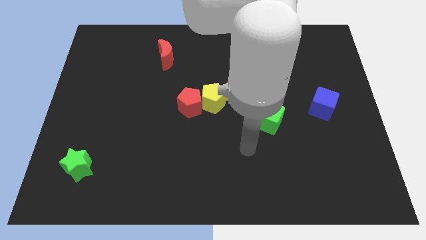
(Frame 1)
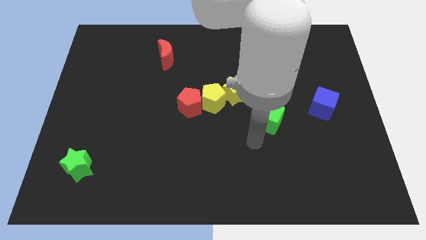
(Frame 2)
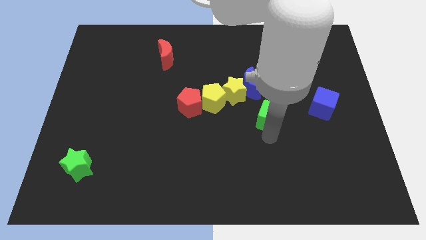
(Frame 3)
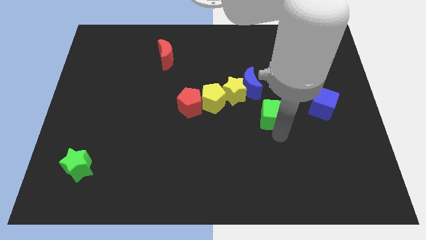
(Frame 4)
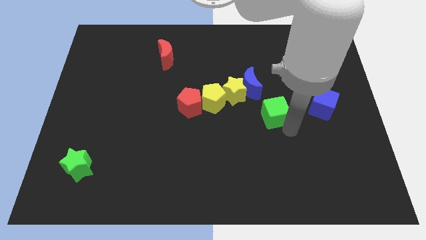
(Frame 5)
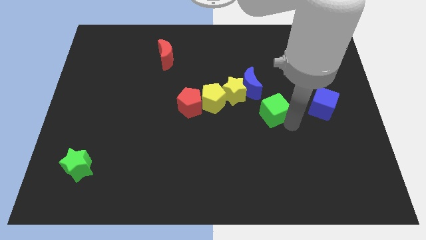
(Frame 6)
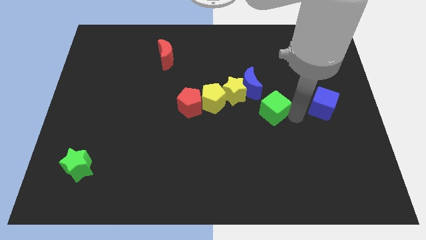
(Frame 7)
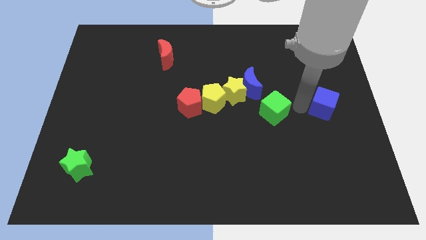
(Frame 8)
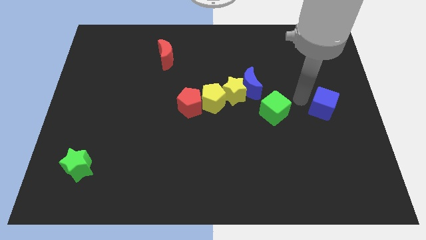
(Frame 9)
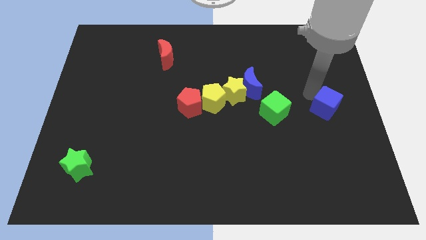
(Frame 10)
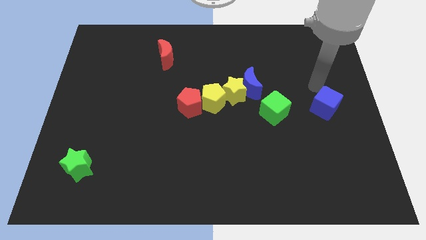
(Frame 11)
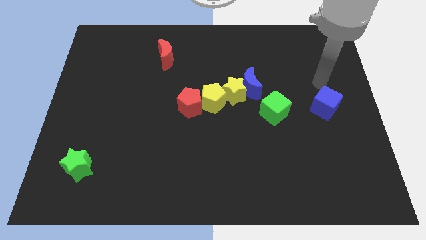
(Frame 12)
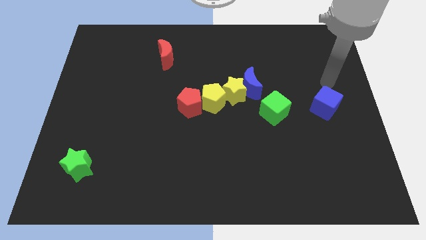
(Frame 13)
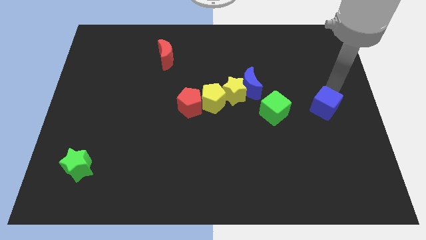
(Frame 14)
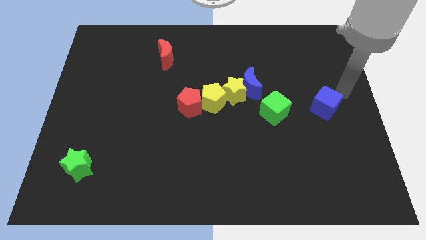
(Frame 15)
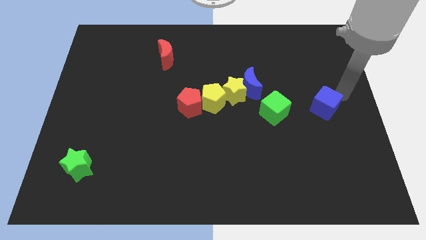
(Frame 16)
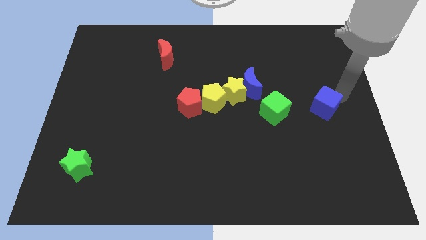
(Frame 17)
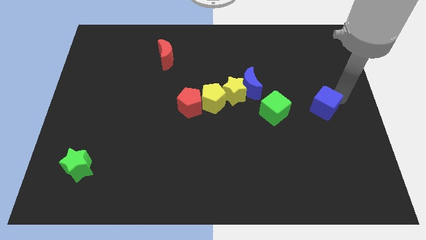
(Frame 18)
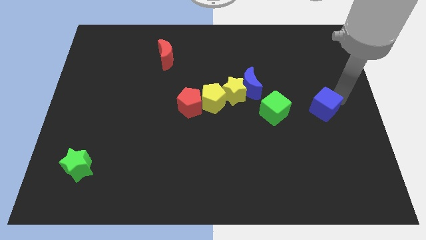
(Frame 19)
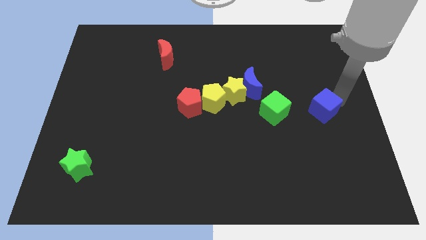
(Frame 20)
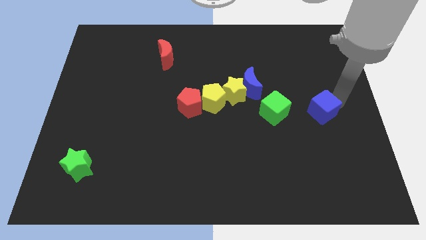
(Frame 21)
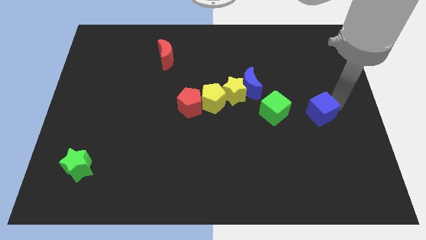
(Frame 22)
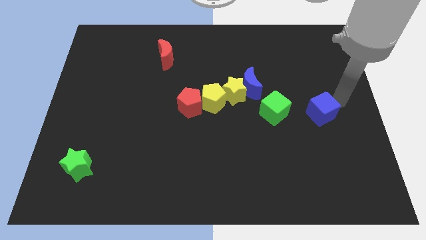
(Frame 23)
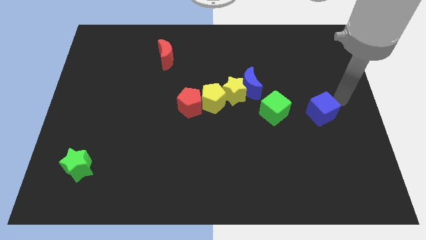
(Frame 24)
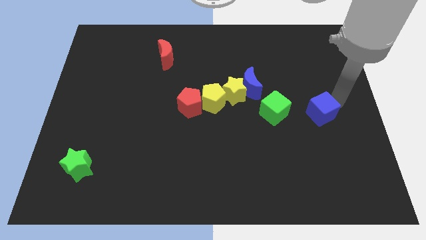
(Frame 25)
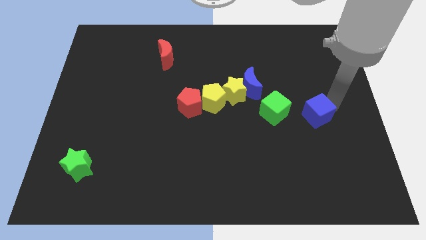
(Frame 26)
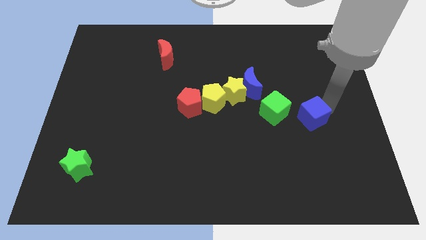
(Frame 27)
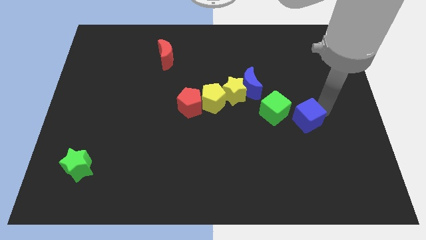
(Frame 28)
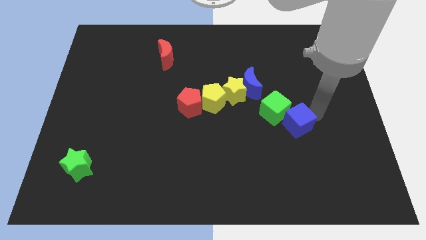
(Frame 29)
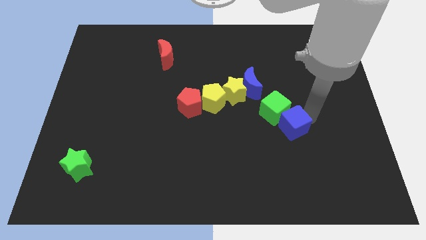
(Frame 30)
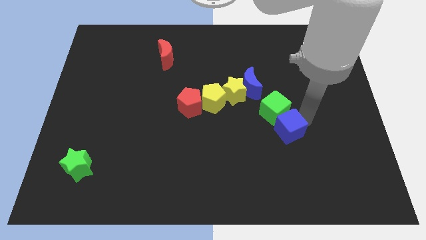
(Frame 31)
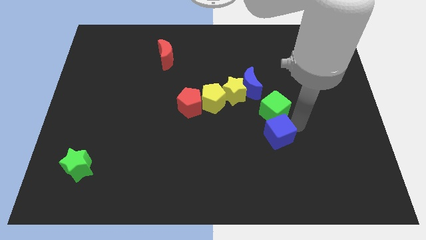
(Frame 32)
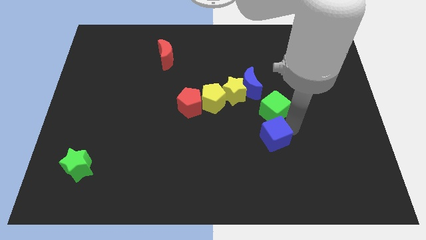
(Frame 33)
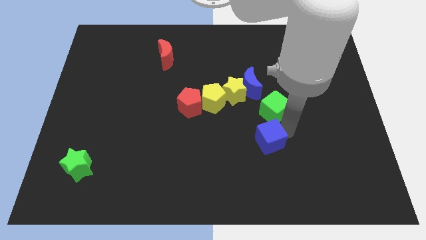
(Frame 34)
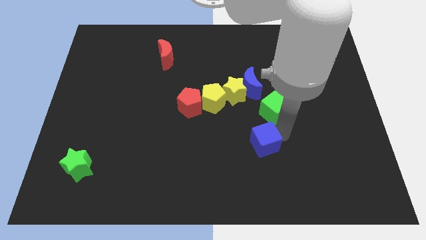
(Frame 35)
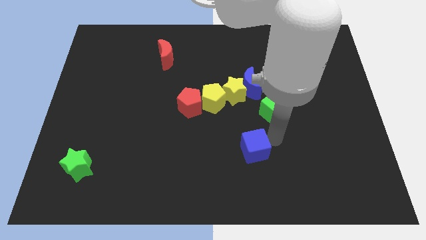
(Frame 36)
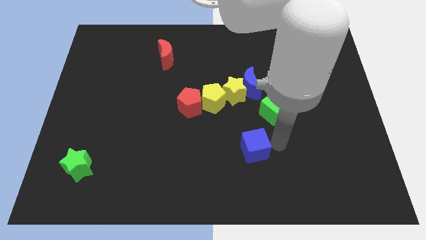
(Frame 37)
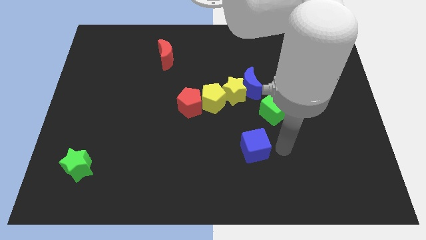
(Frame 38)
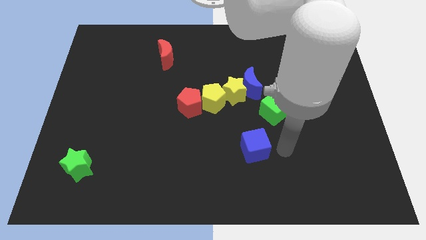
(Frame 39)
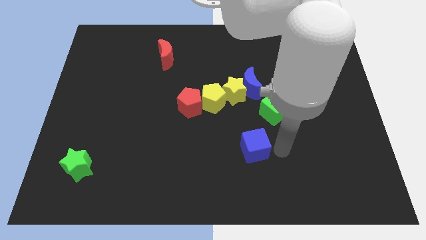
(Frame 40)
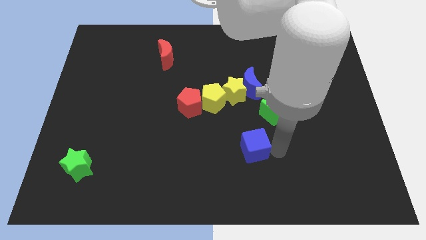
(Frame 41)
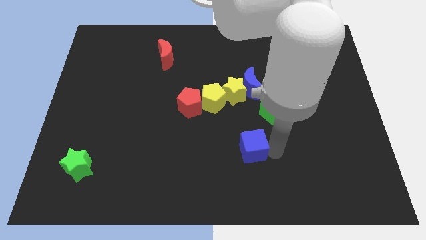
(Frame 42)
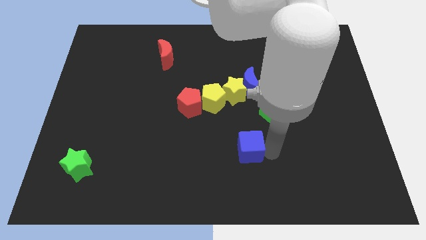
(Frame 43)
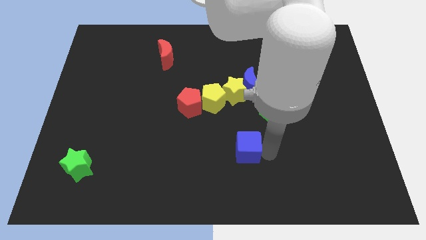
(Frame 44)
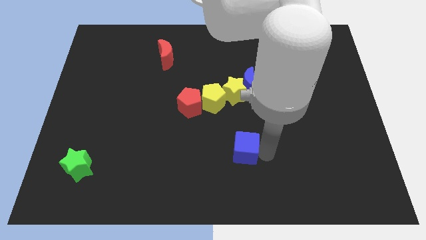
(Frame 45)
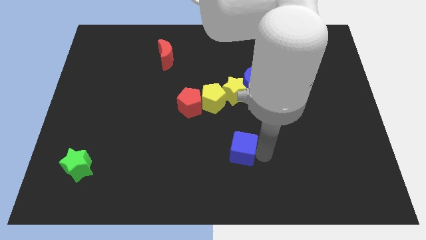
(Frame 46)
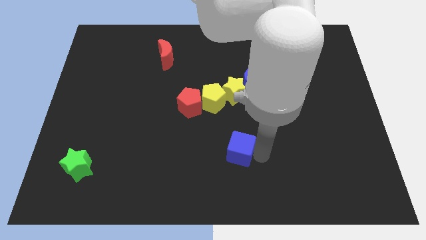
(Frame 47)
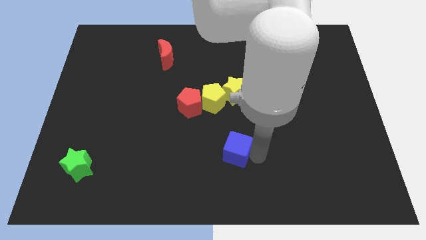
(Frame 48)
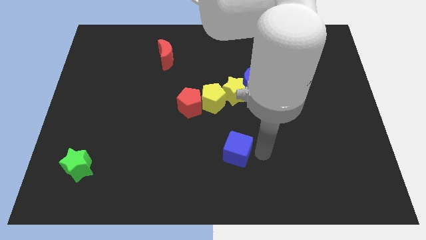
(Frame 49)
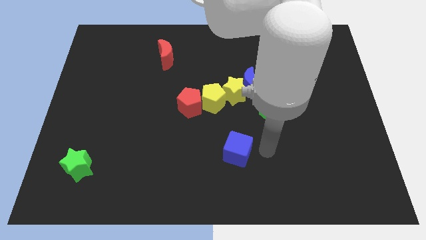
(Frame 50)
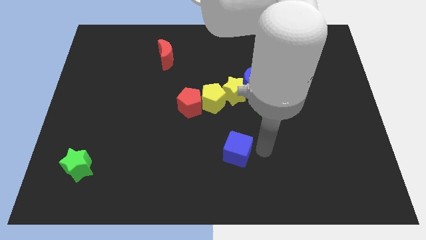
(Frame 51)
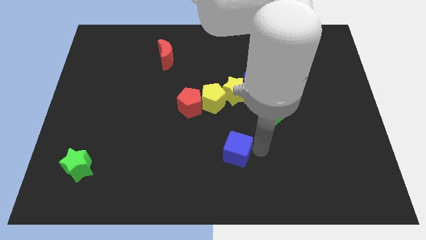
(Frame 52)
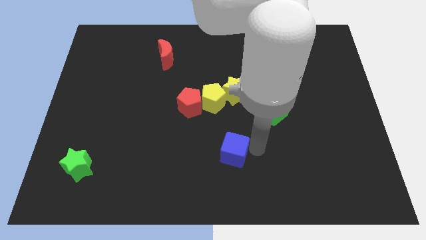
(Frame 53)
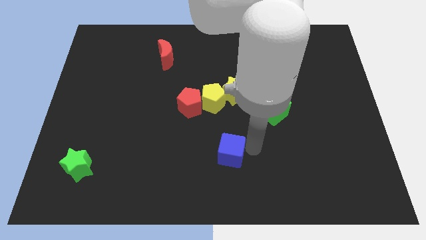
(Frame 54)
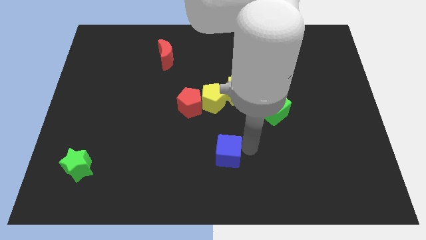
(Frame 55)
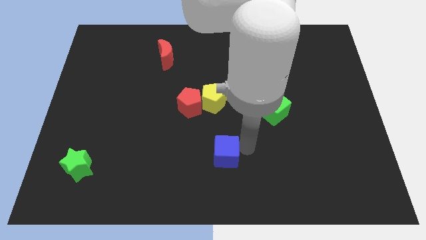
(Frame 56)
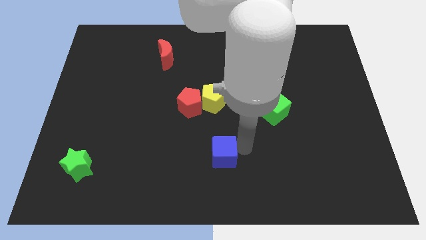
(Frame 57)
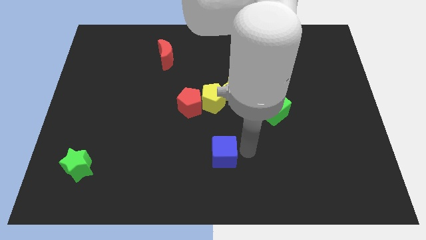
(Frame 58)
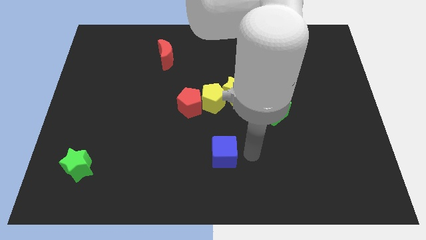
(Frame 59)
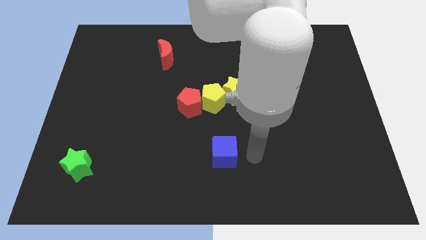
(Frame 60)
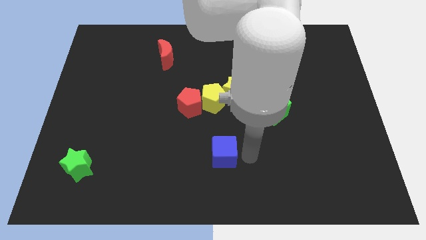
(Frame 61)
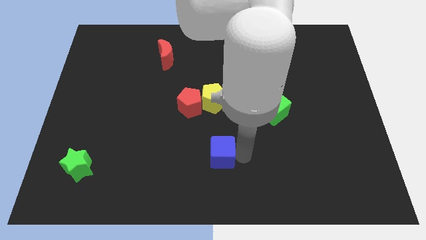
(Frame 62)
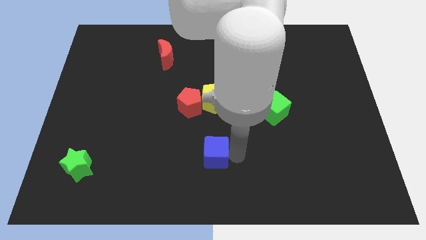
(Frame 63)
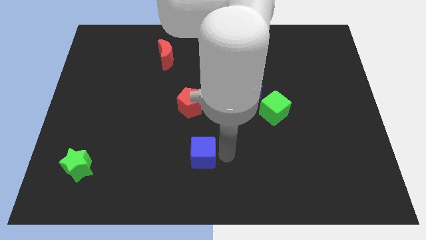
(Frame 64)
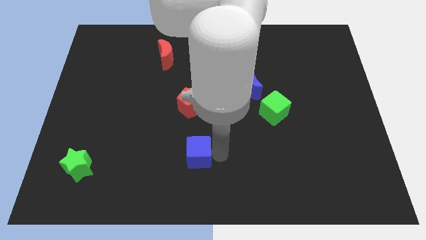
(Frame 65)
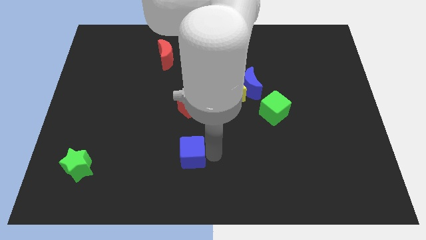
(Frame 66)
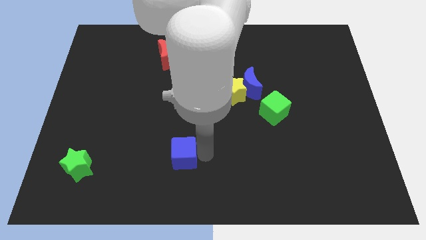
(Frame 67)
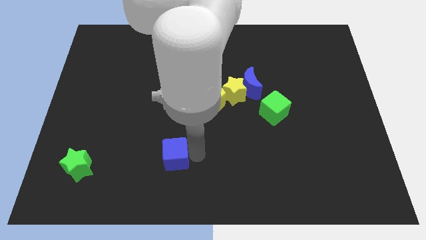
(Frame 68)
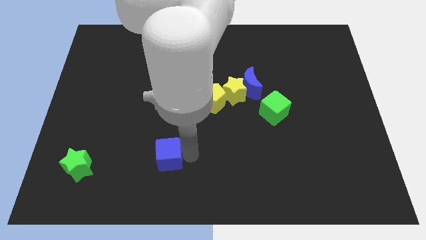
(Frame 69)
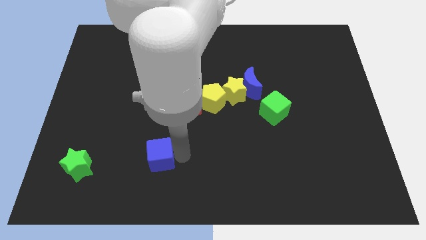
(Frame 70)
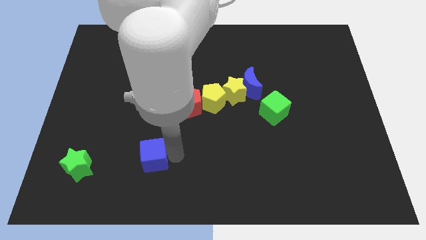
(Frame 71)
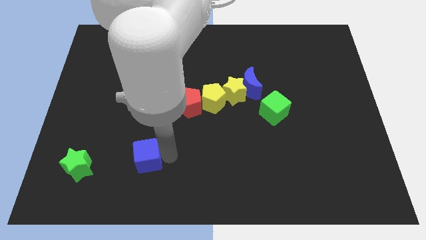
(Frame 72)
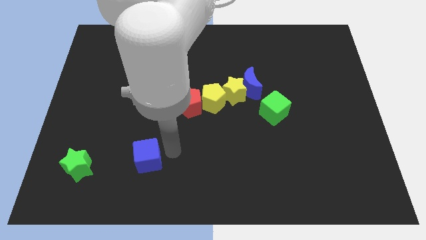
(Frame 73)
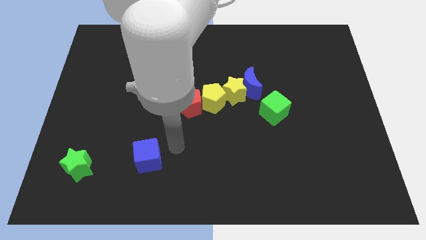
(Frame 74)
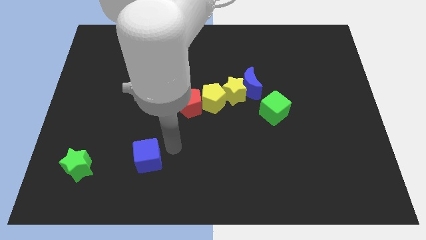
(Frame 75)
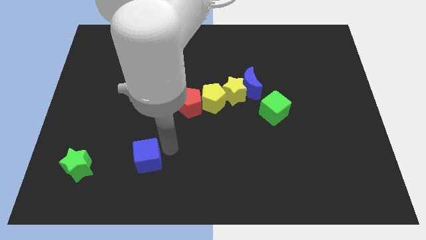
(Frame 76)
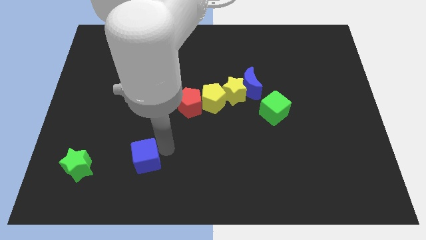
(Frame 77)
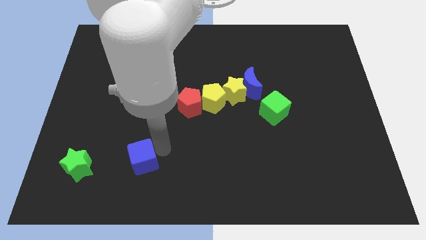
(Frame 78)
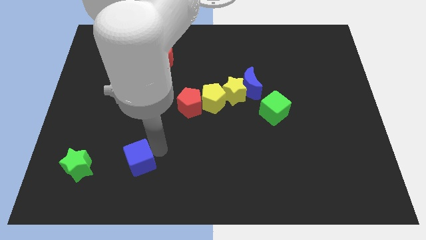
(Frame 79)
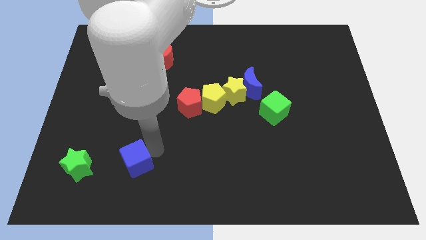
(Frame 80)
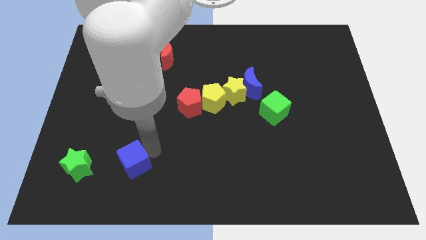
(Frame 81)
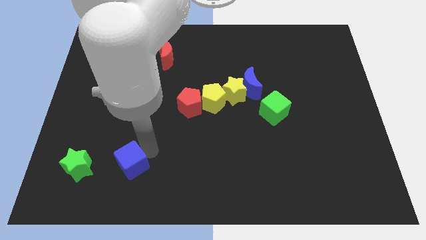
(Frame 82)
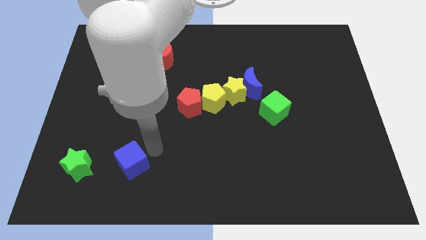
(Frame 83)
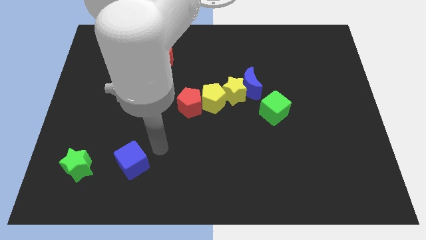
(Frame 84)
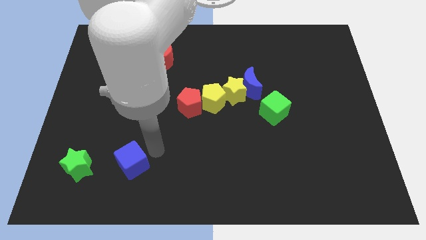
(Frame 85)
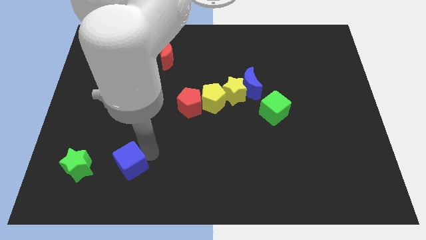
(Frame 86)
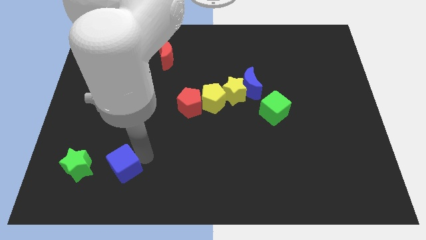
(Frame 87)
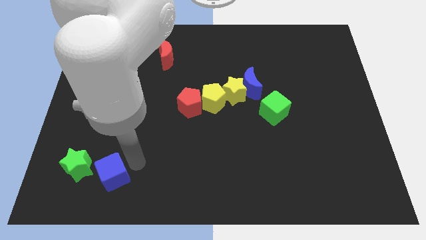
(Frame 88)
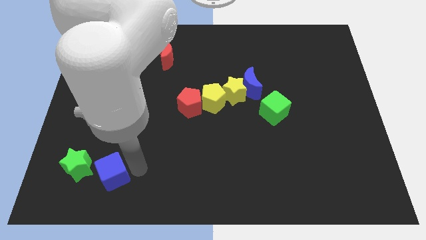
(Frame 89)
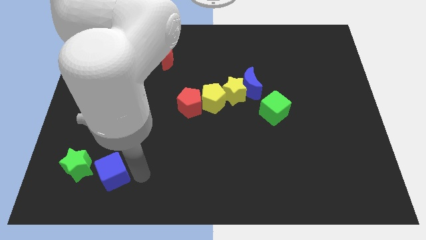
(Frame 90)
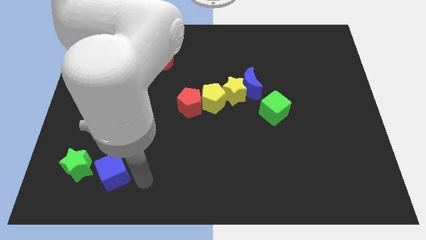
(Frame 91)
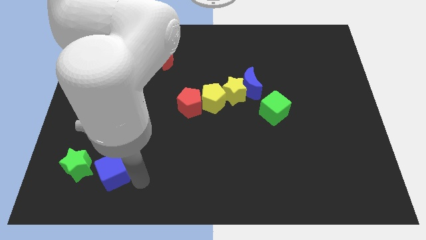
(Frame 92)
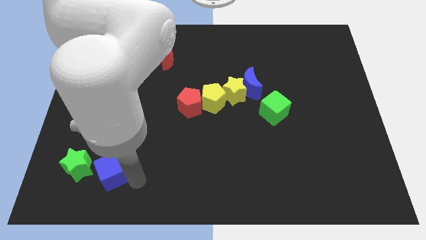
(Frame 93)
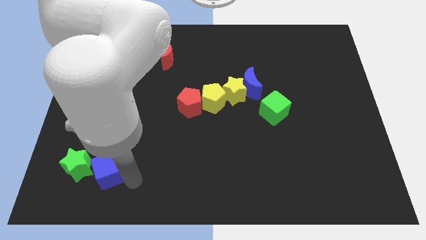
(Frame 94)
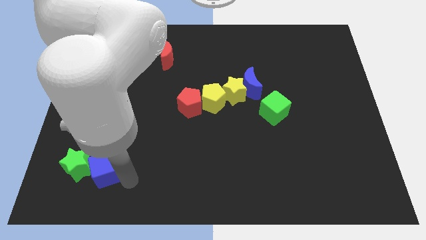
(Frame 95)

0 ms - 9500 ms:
move the blue cube to the green star
